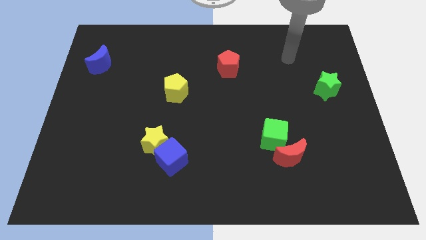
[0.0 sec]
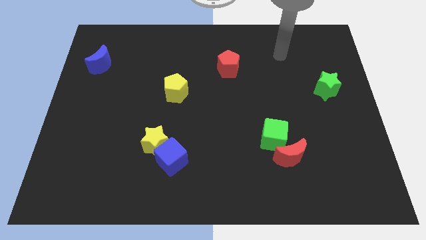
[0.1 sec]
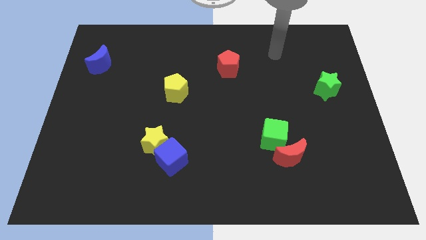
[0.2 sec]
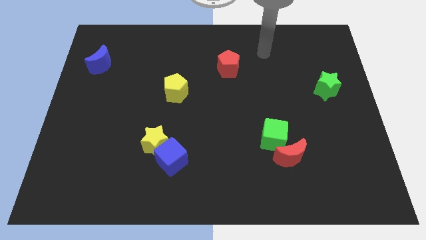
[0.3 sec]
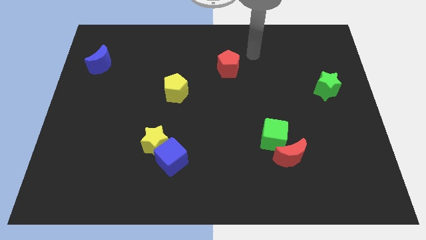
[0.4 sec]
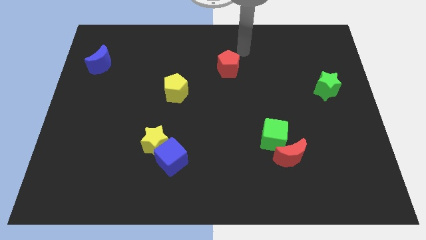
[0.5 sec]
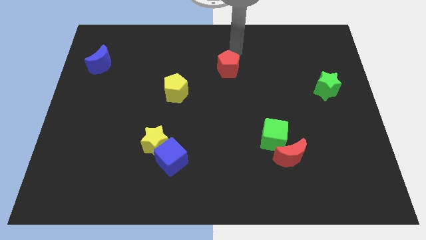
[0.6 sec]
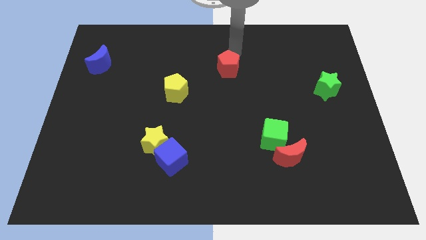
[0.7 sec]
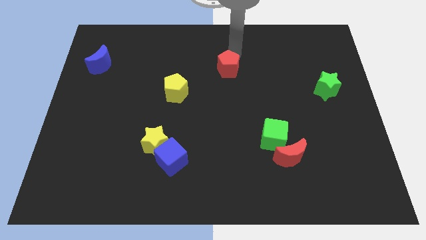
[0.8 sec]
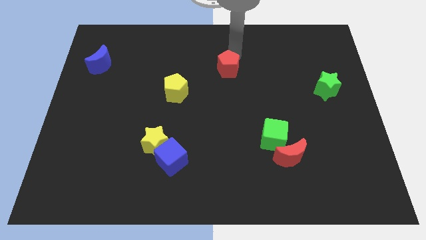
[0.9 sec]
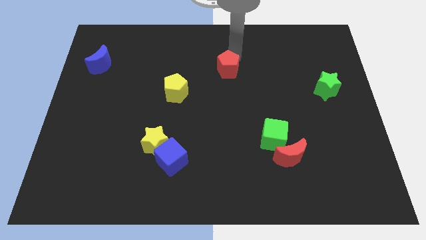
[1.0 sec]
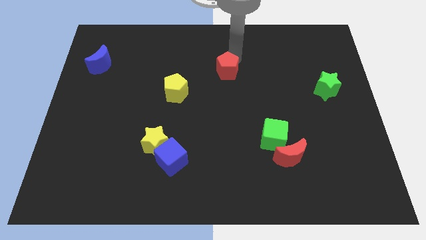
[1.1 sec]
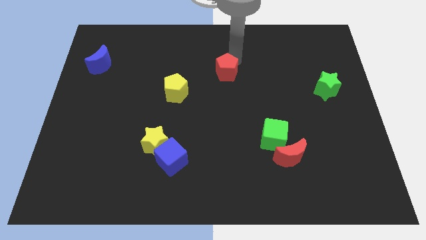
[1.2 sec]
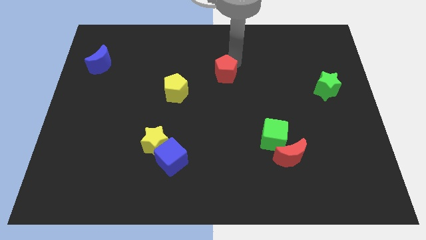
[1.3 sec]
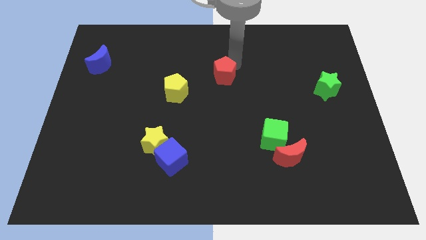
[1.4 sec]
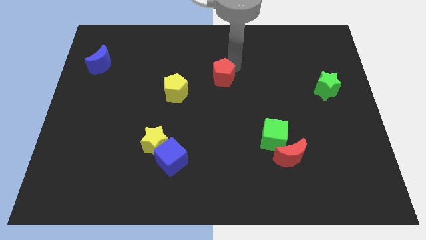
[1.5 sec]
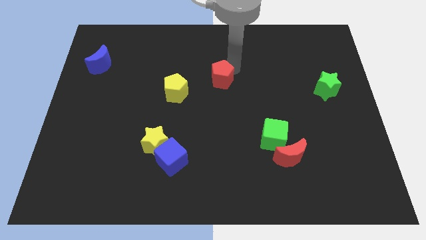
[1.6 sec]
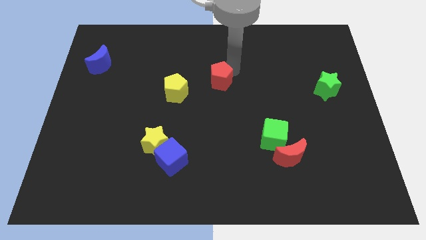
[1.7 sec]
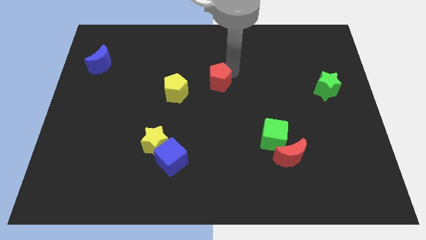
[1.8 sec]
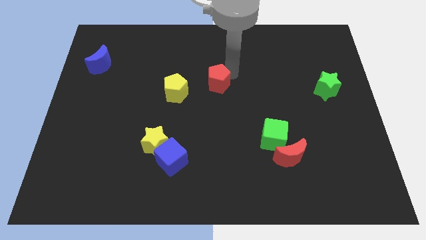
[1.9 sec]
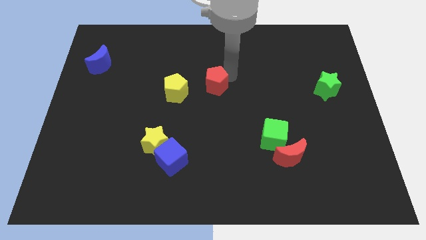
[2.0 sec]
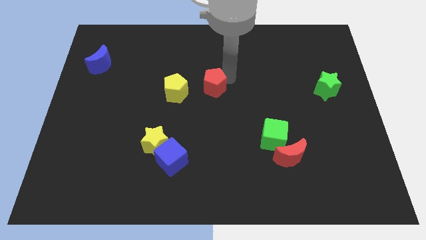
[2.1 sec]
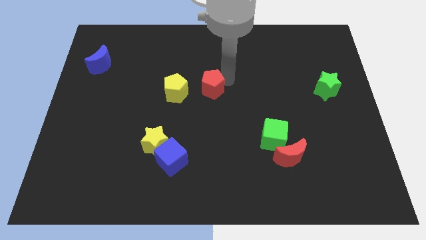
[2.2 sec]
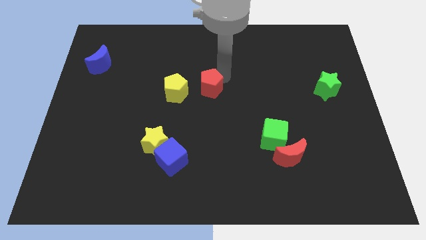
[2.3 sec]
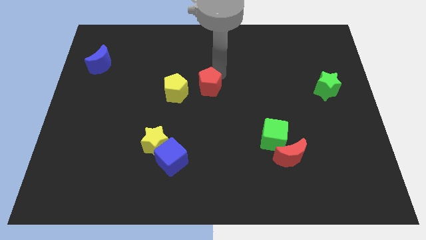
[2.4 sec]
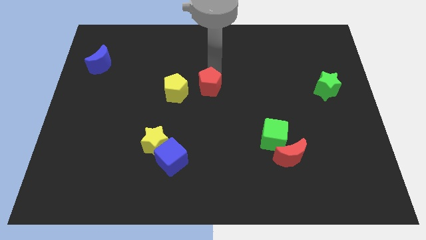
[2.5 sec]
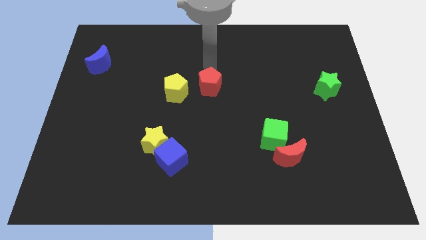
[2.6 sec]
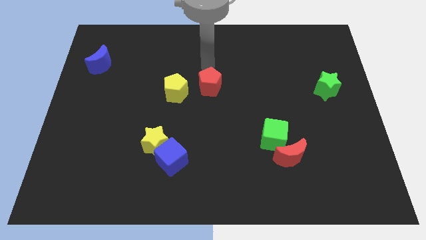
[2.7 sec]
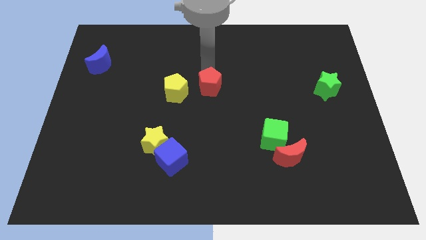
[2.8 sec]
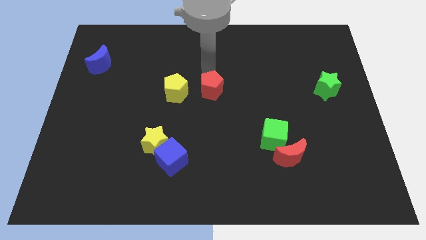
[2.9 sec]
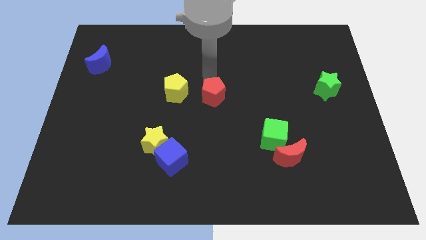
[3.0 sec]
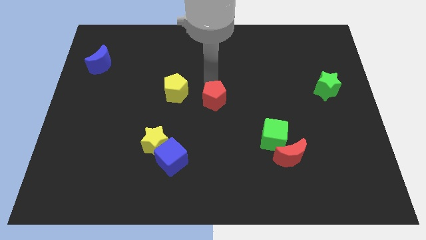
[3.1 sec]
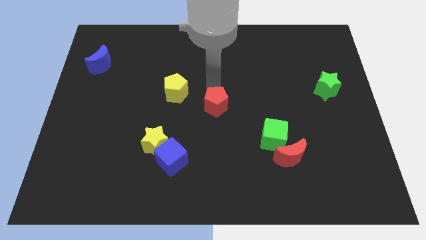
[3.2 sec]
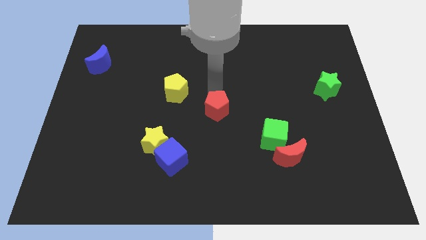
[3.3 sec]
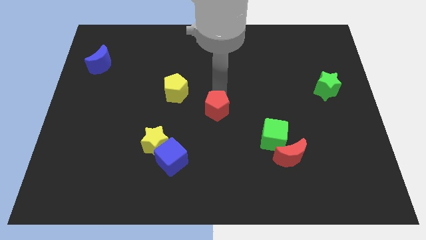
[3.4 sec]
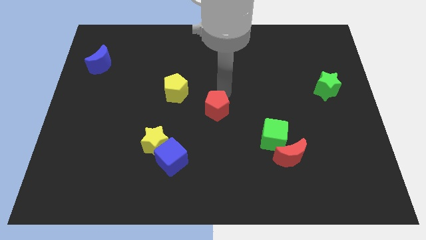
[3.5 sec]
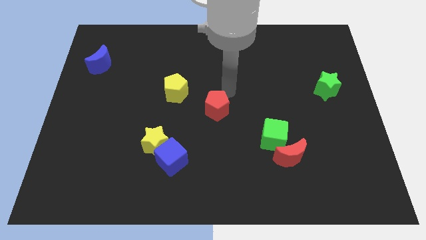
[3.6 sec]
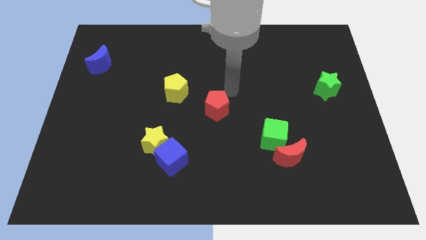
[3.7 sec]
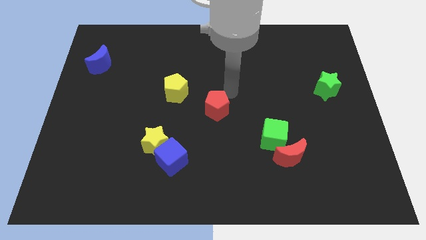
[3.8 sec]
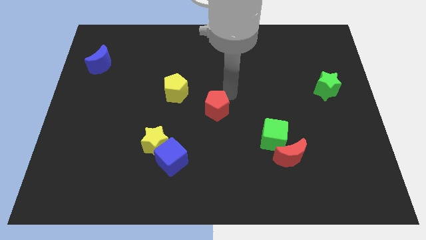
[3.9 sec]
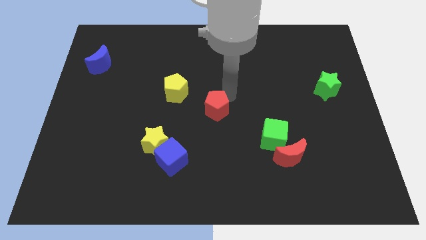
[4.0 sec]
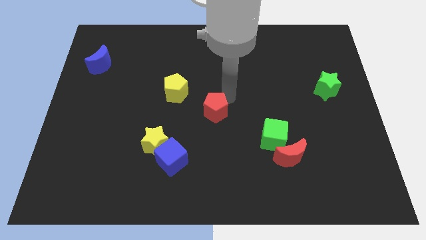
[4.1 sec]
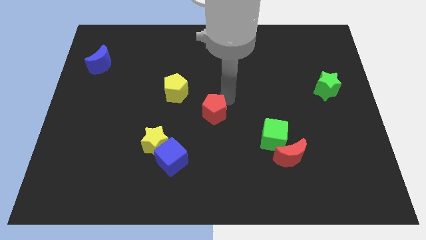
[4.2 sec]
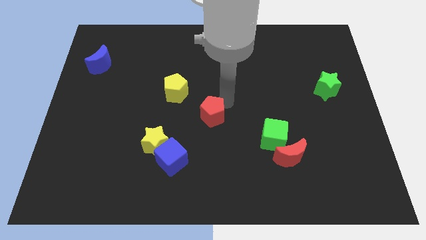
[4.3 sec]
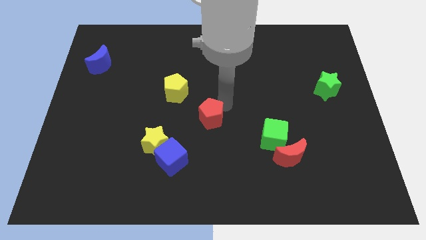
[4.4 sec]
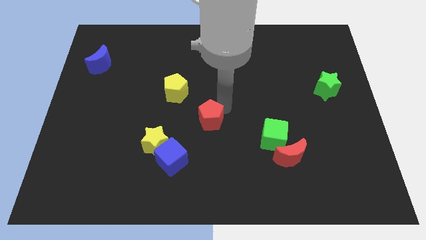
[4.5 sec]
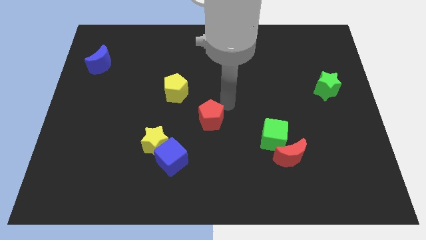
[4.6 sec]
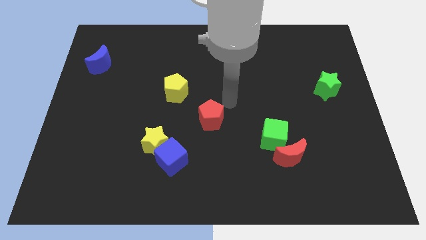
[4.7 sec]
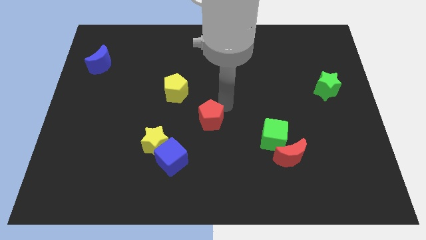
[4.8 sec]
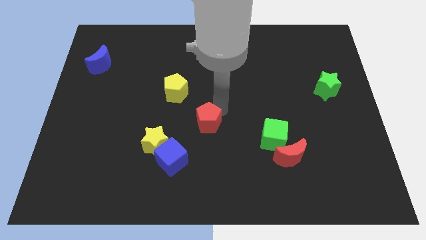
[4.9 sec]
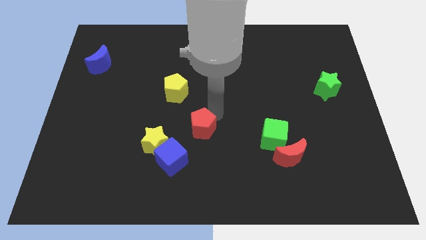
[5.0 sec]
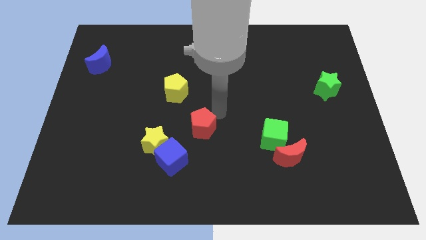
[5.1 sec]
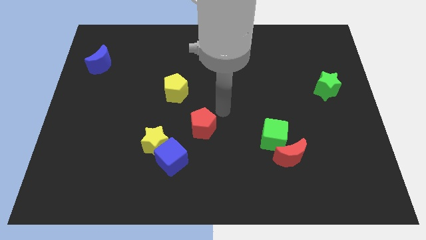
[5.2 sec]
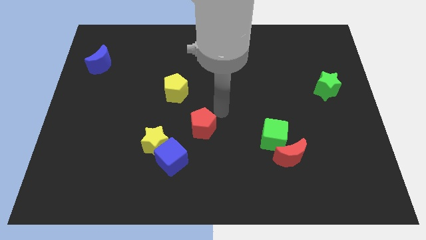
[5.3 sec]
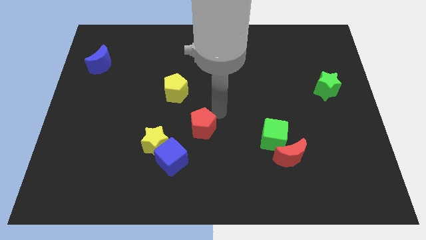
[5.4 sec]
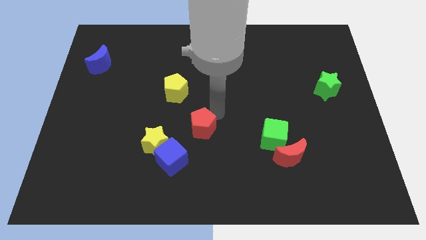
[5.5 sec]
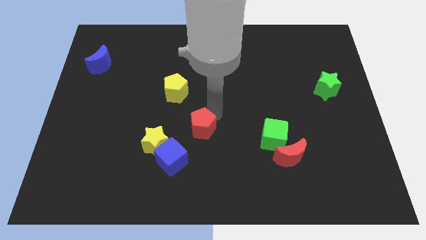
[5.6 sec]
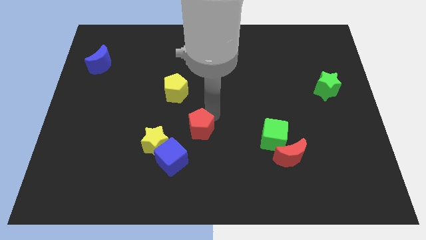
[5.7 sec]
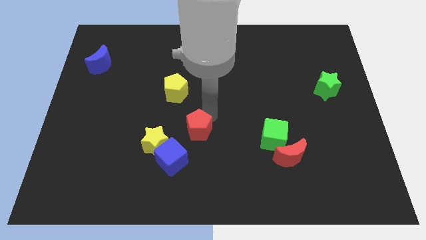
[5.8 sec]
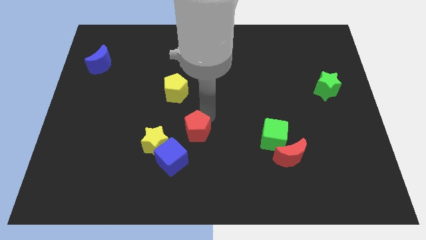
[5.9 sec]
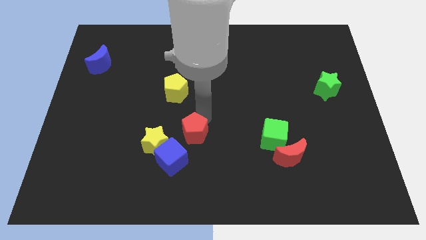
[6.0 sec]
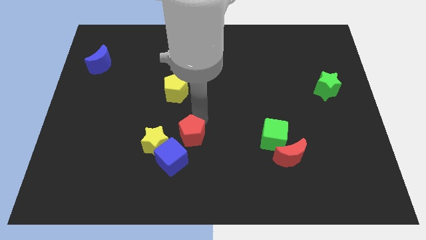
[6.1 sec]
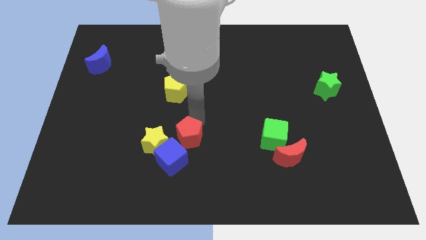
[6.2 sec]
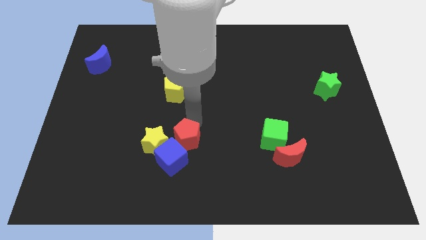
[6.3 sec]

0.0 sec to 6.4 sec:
put the red pentagon close to the blue cube
